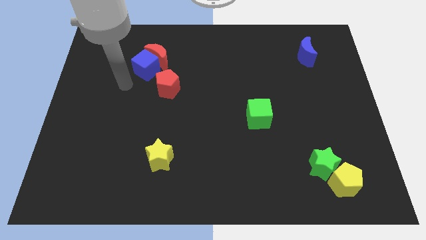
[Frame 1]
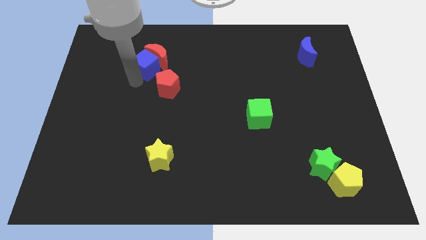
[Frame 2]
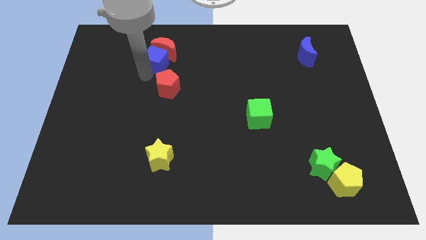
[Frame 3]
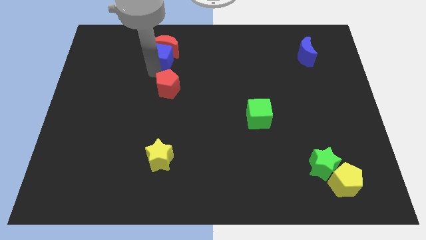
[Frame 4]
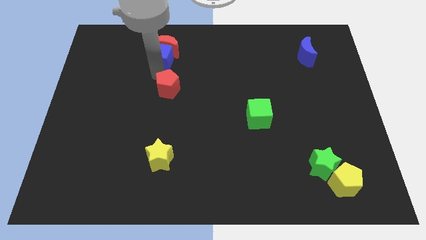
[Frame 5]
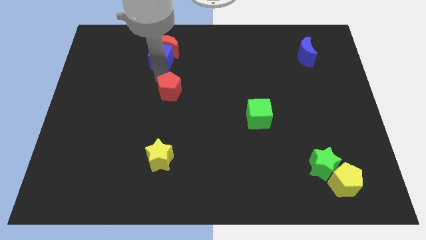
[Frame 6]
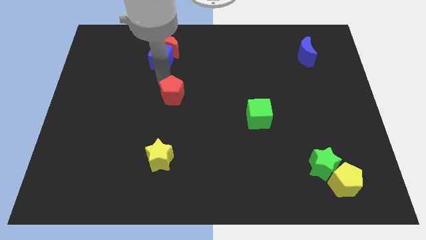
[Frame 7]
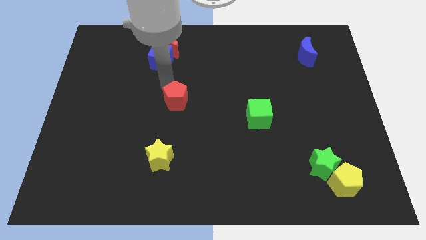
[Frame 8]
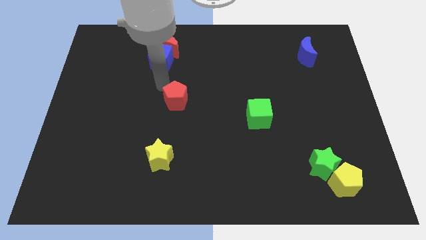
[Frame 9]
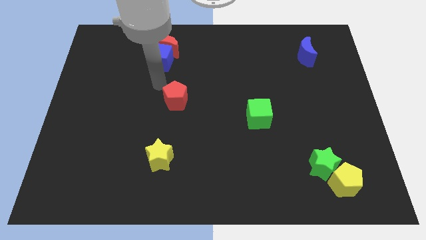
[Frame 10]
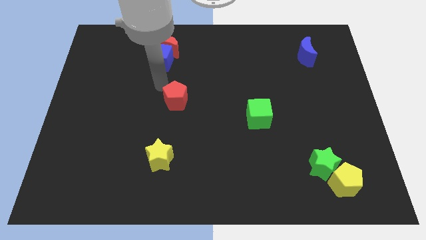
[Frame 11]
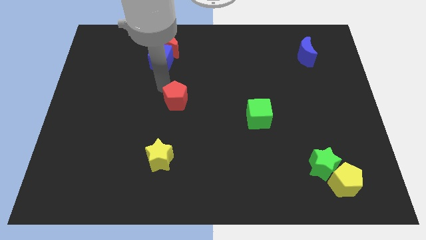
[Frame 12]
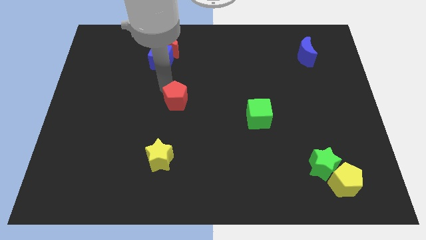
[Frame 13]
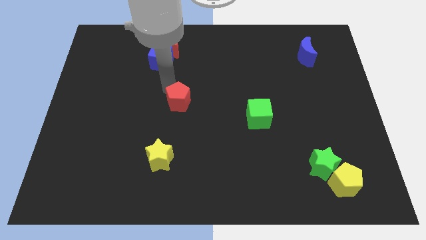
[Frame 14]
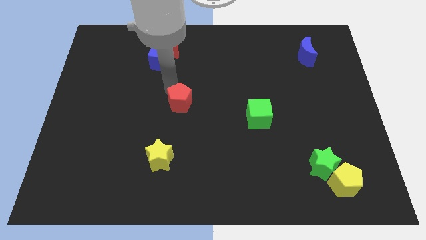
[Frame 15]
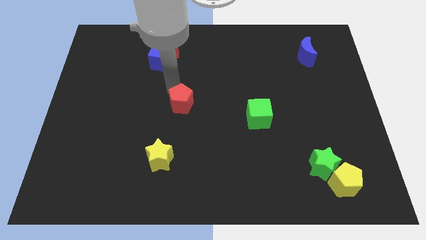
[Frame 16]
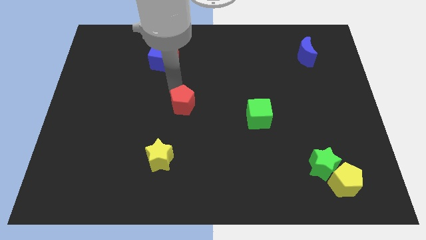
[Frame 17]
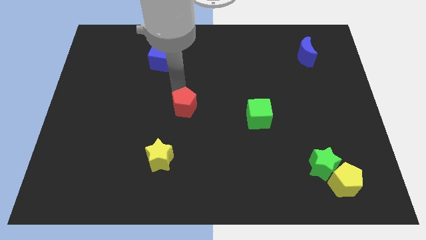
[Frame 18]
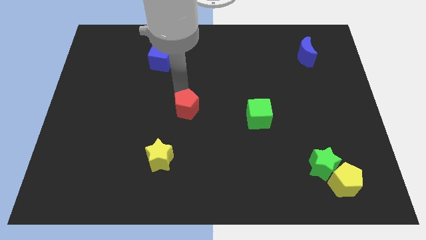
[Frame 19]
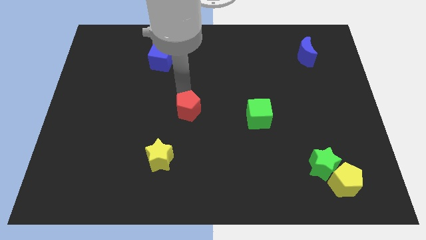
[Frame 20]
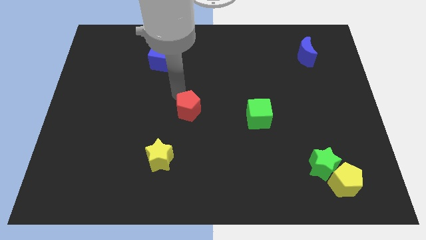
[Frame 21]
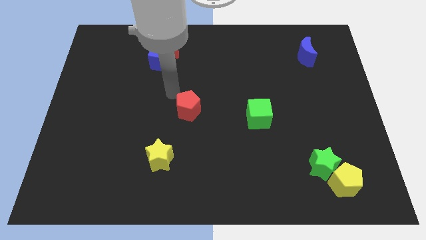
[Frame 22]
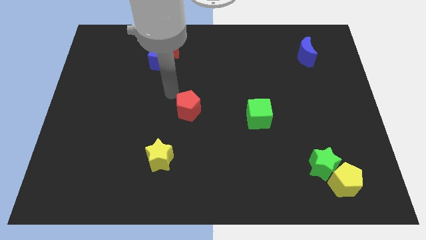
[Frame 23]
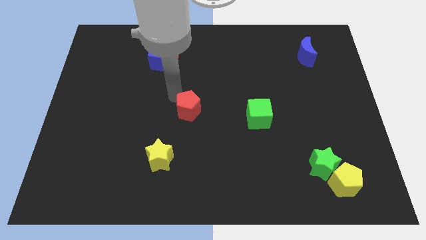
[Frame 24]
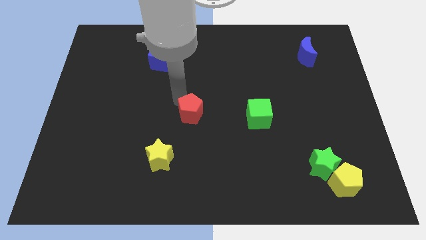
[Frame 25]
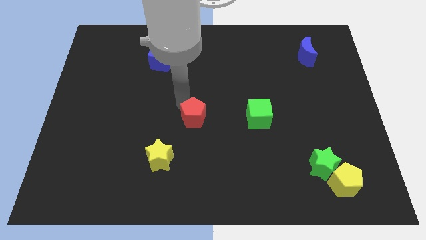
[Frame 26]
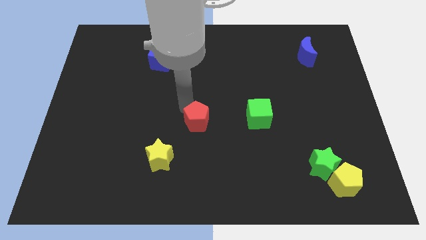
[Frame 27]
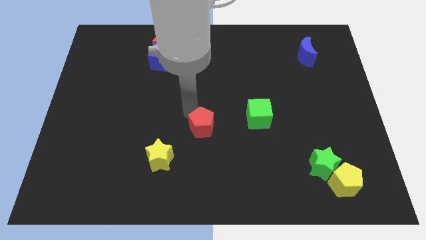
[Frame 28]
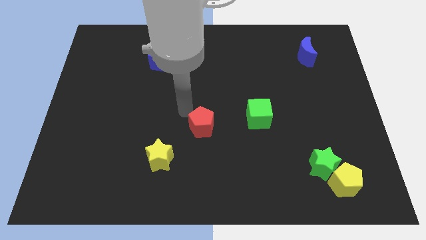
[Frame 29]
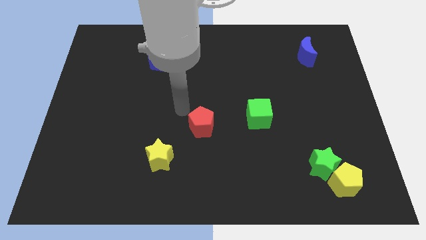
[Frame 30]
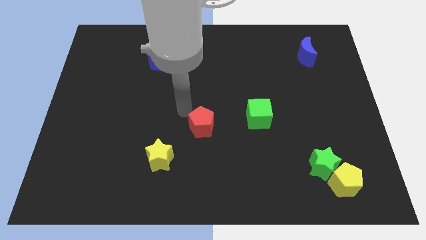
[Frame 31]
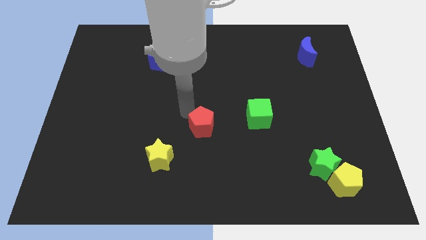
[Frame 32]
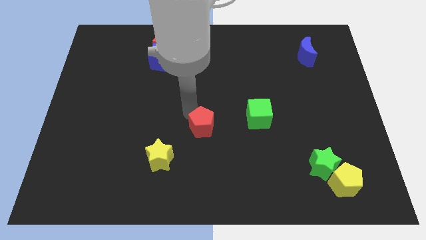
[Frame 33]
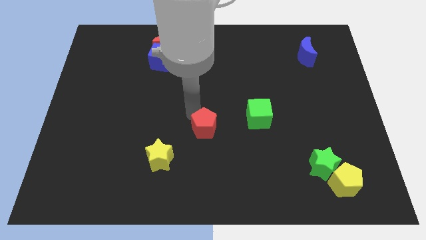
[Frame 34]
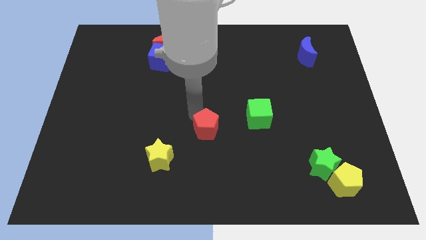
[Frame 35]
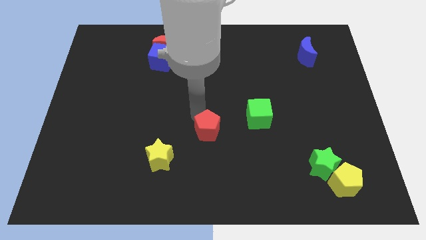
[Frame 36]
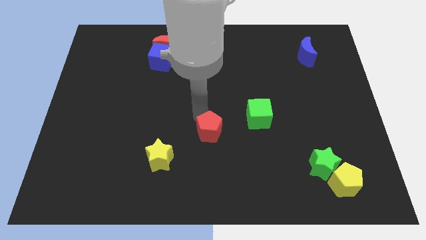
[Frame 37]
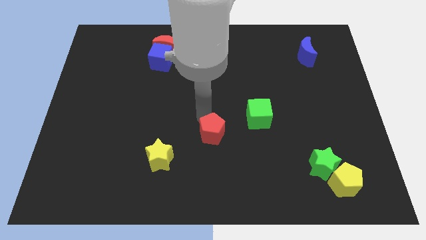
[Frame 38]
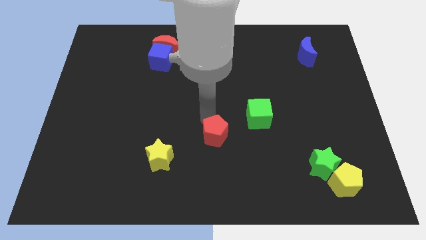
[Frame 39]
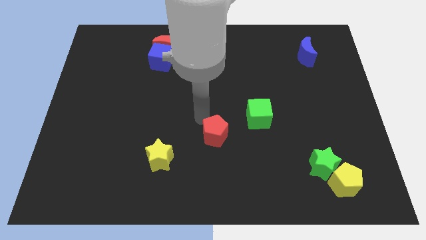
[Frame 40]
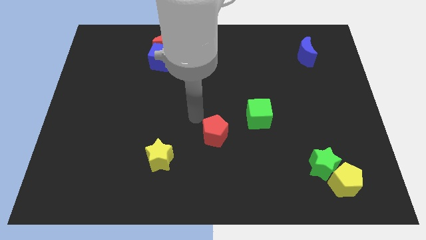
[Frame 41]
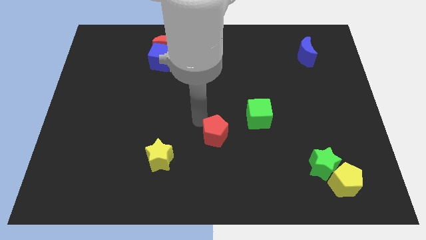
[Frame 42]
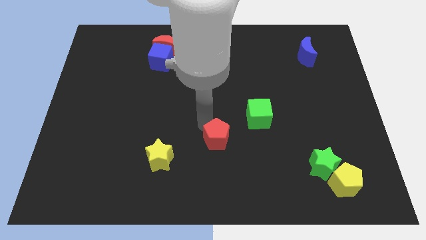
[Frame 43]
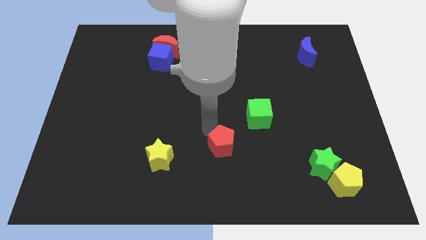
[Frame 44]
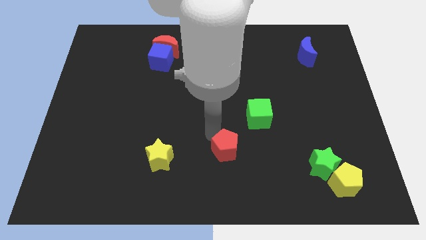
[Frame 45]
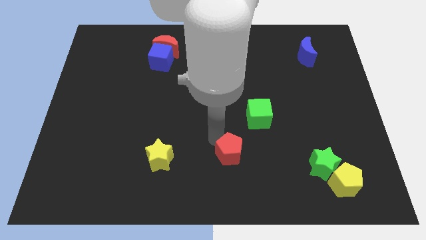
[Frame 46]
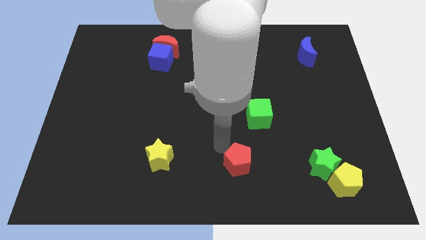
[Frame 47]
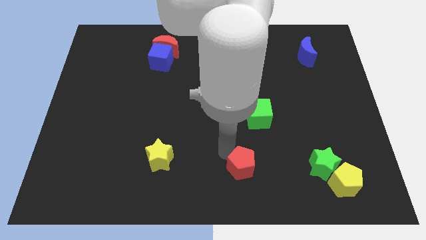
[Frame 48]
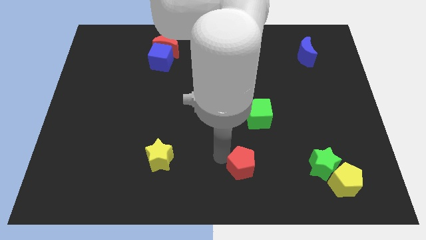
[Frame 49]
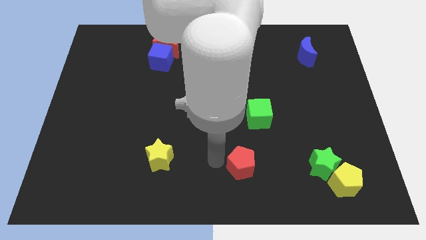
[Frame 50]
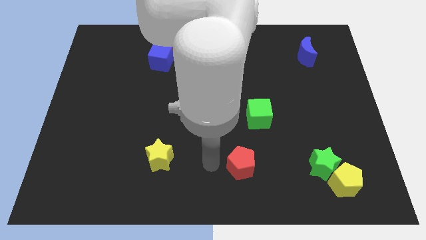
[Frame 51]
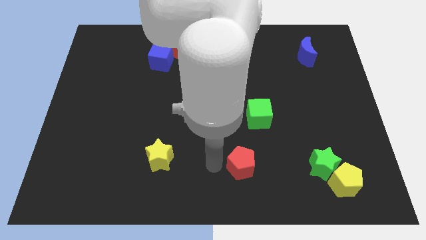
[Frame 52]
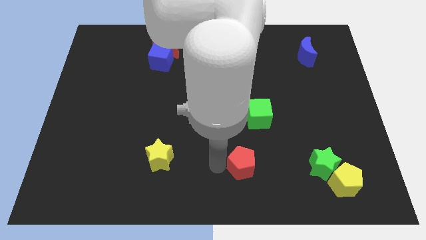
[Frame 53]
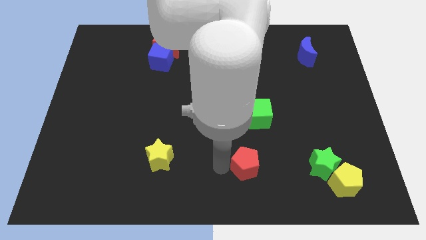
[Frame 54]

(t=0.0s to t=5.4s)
slide the red pentagon to the left of the green star

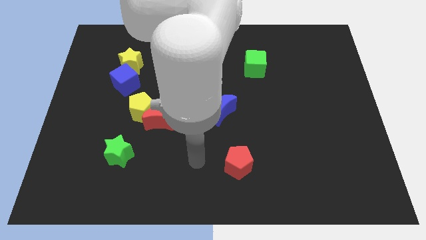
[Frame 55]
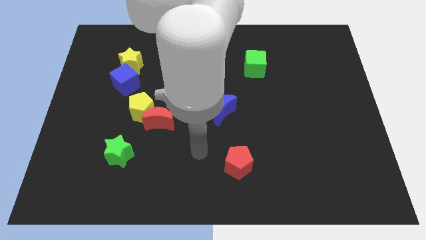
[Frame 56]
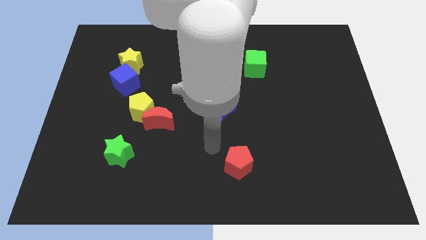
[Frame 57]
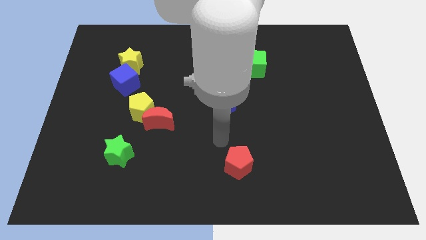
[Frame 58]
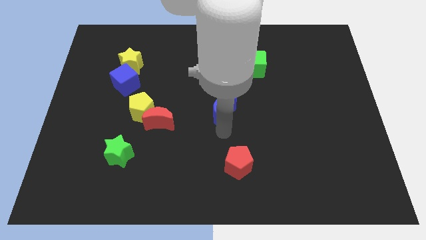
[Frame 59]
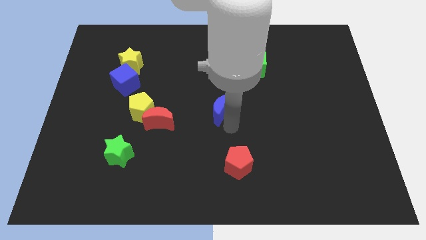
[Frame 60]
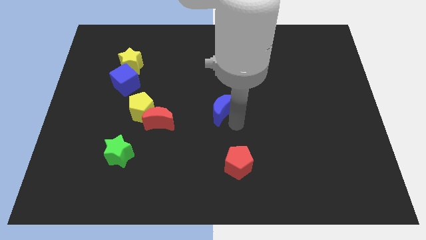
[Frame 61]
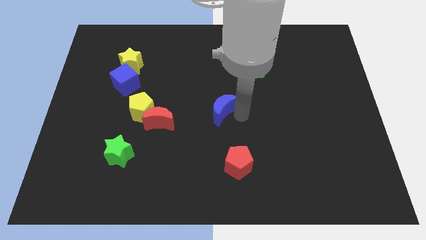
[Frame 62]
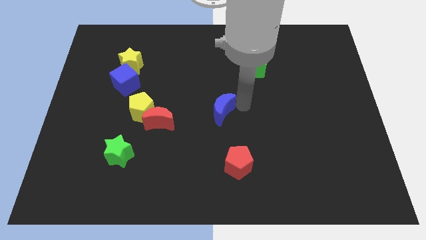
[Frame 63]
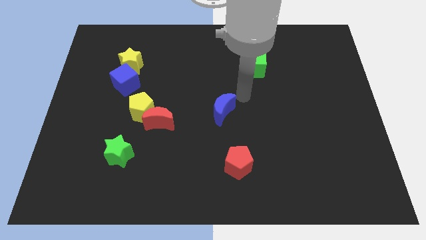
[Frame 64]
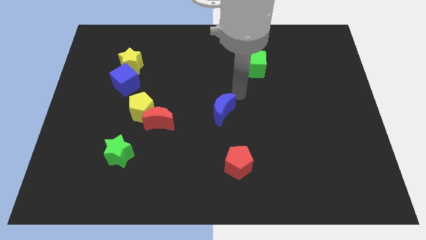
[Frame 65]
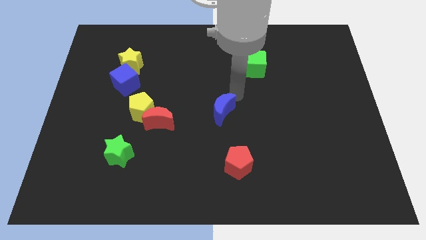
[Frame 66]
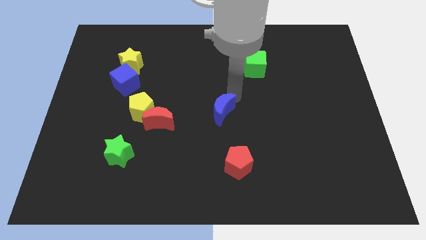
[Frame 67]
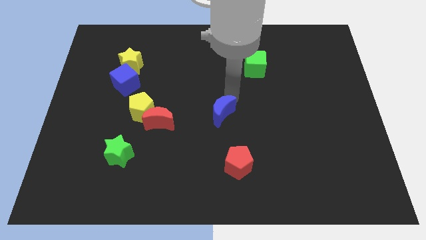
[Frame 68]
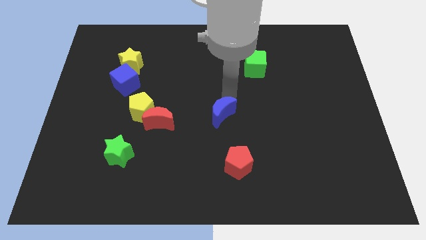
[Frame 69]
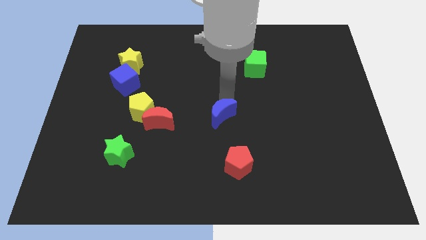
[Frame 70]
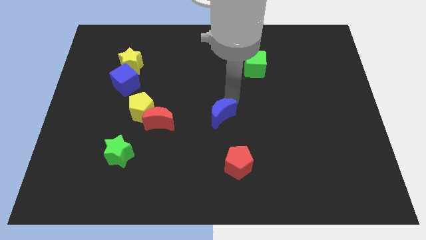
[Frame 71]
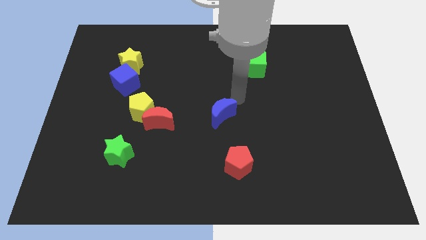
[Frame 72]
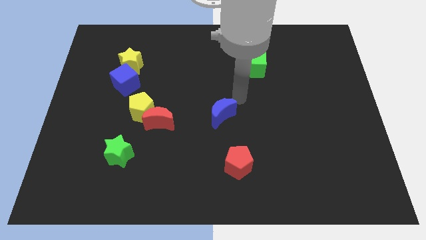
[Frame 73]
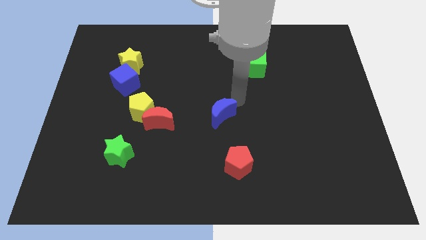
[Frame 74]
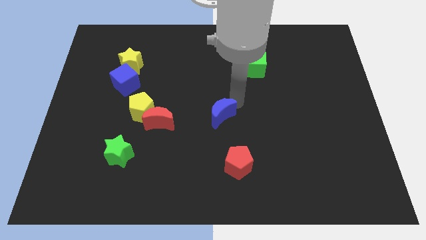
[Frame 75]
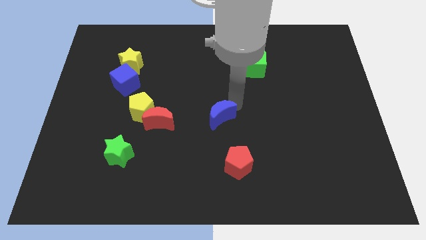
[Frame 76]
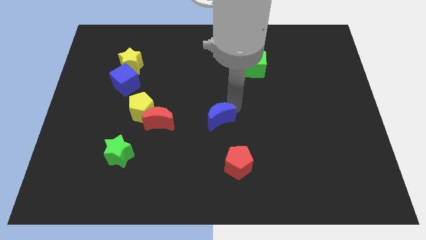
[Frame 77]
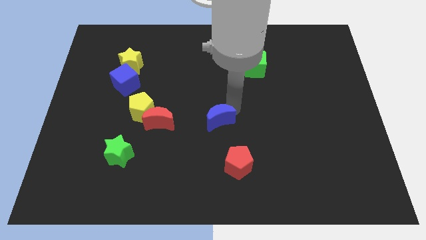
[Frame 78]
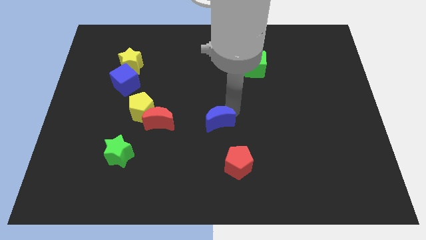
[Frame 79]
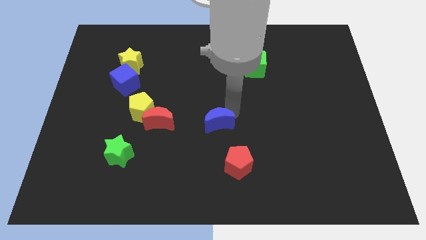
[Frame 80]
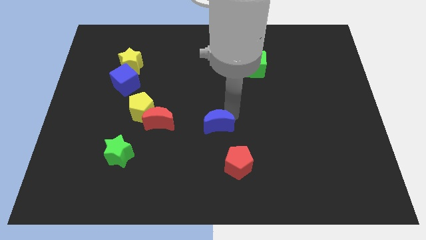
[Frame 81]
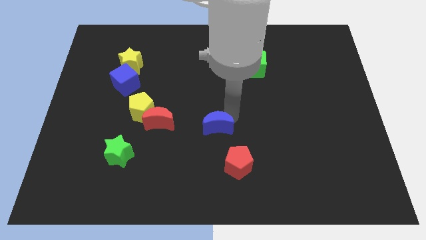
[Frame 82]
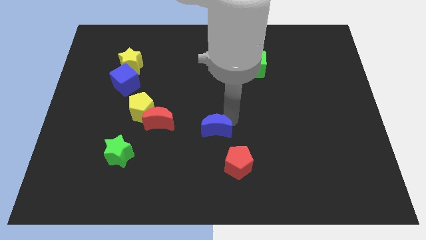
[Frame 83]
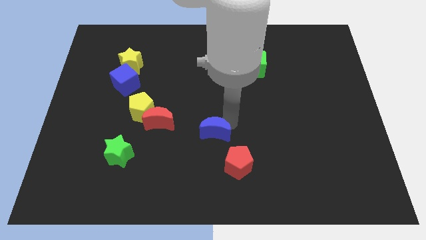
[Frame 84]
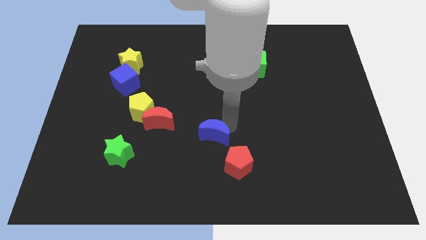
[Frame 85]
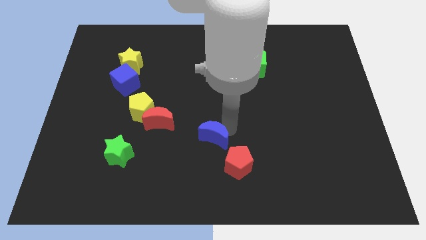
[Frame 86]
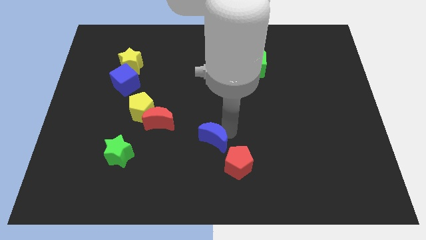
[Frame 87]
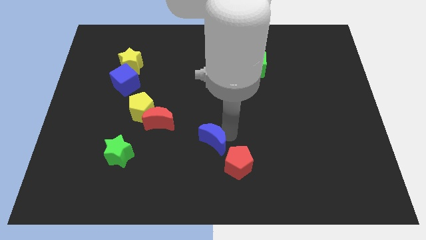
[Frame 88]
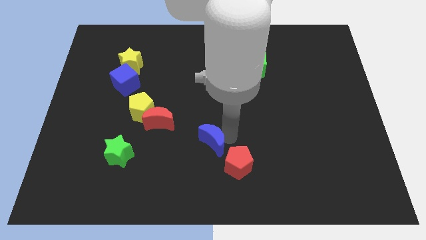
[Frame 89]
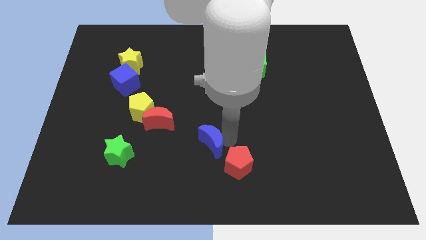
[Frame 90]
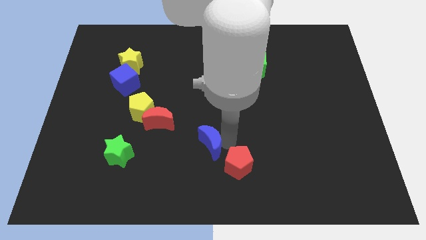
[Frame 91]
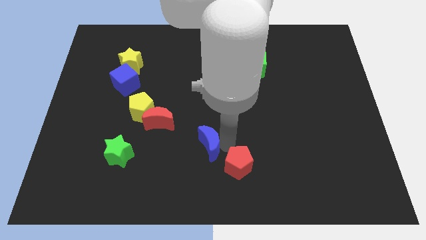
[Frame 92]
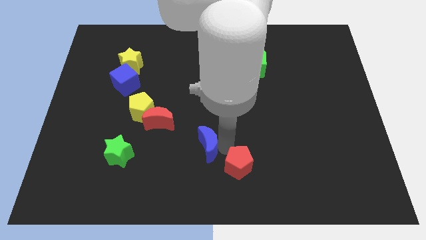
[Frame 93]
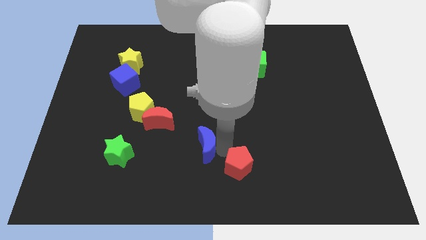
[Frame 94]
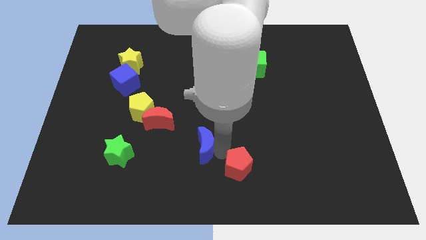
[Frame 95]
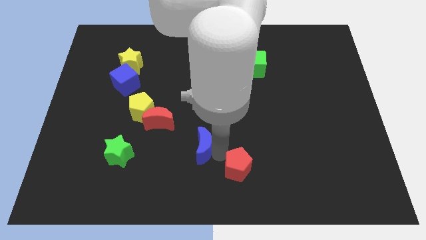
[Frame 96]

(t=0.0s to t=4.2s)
put the blue moon diagonally down and to the right of the red moon
